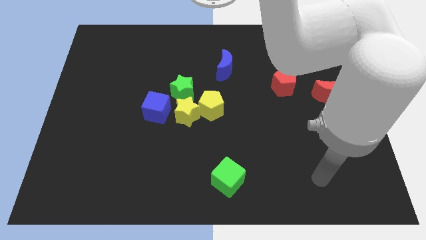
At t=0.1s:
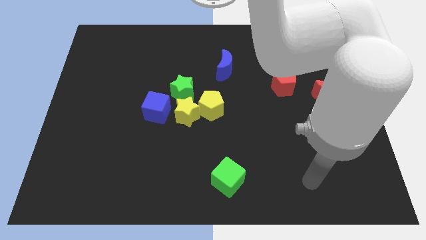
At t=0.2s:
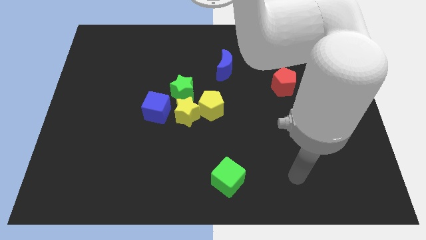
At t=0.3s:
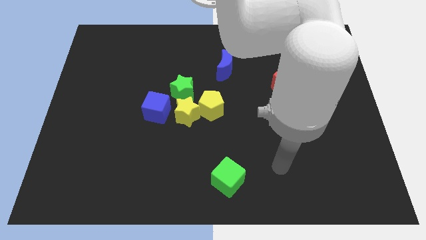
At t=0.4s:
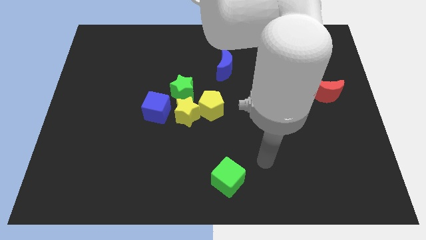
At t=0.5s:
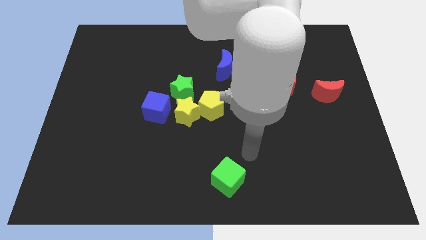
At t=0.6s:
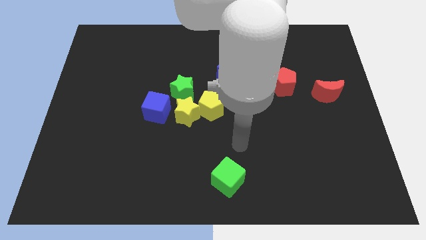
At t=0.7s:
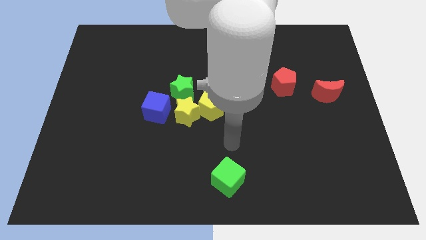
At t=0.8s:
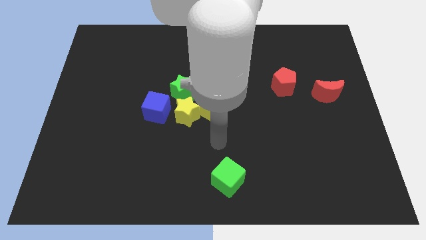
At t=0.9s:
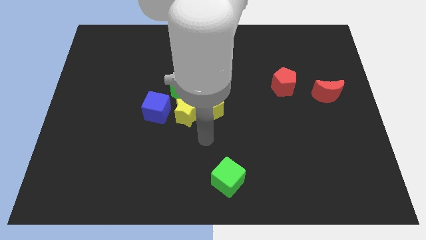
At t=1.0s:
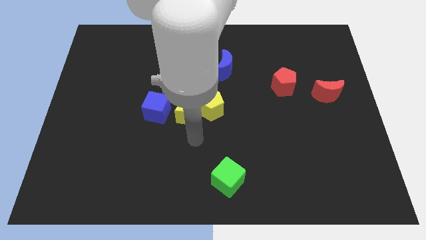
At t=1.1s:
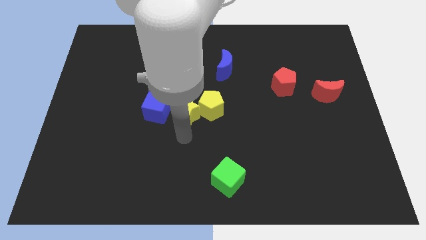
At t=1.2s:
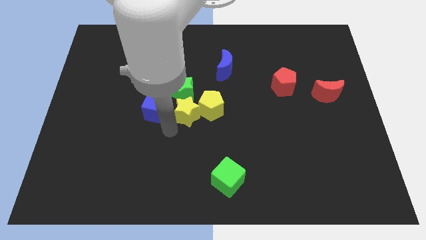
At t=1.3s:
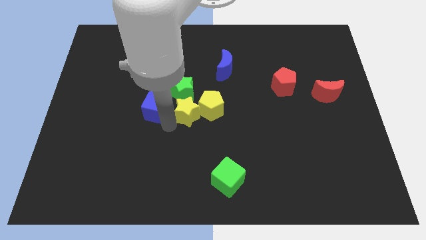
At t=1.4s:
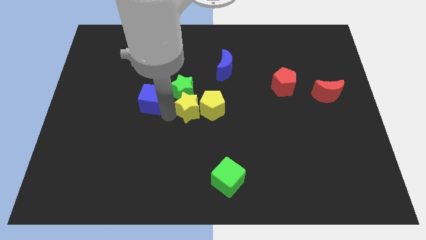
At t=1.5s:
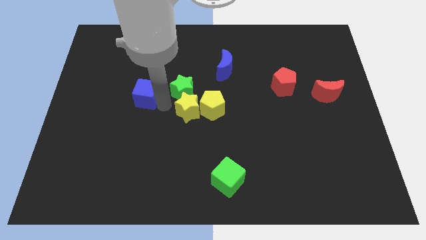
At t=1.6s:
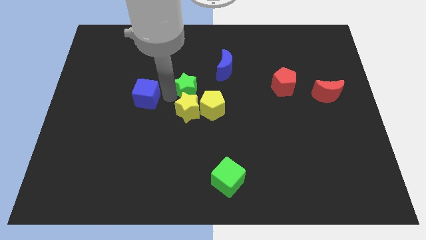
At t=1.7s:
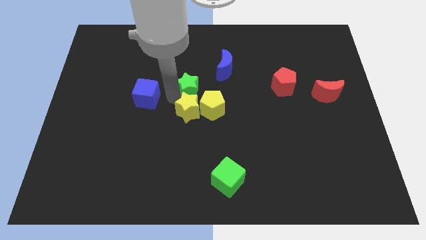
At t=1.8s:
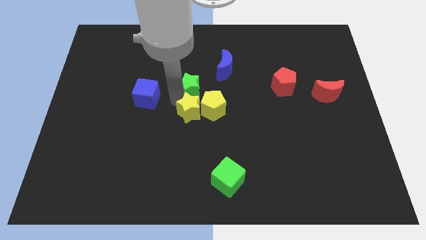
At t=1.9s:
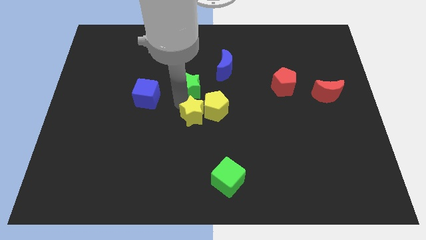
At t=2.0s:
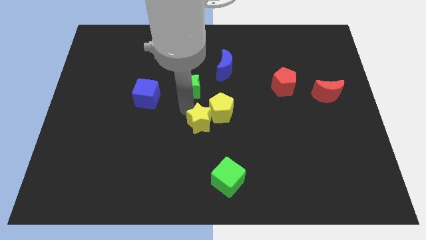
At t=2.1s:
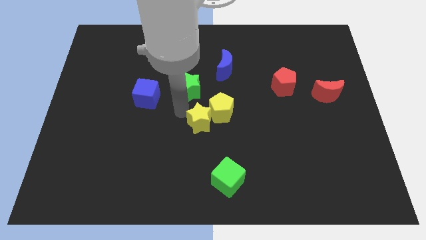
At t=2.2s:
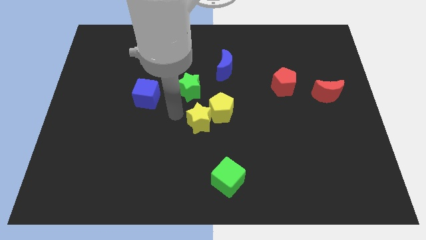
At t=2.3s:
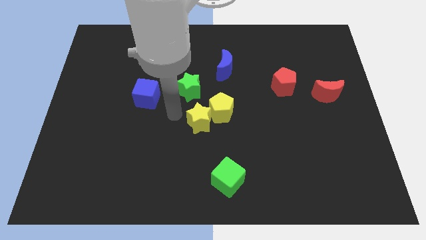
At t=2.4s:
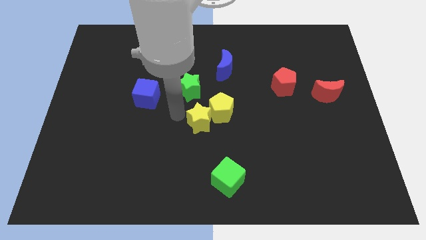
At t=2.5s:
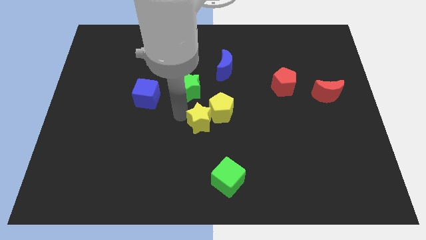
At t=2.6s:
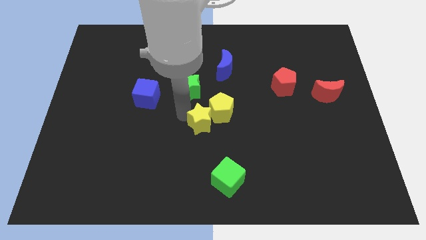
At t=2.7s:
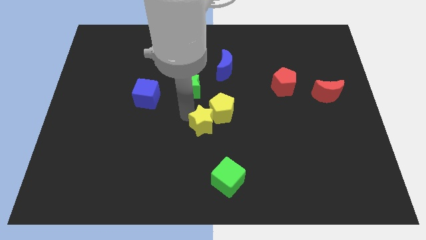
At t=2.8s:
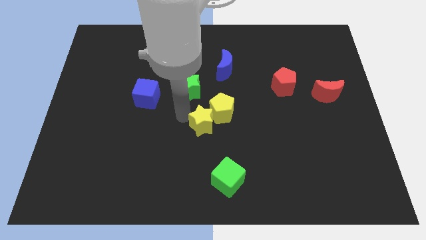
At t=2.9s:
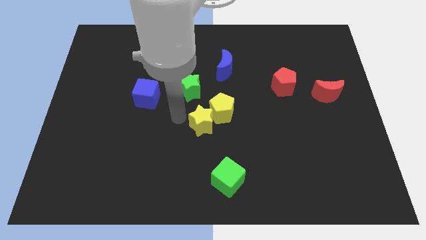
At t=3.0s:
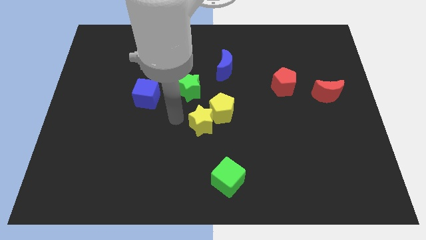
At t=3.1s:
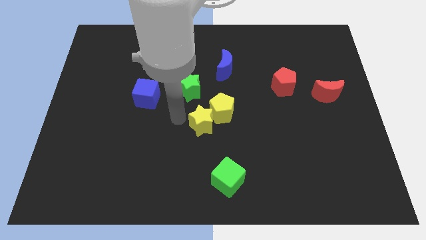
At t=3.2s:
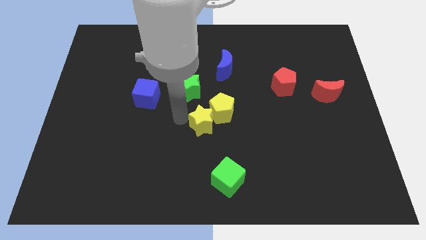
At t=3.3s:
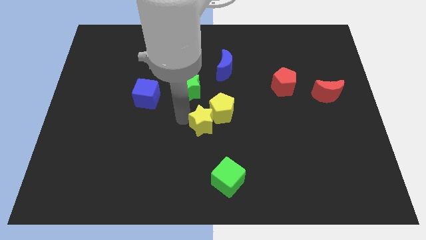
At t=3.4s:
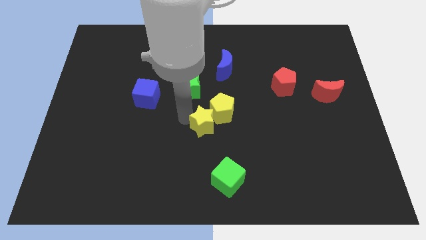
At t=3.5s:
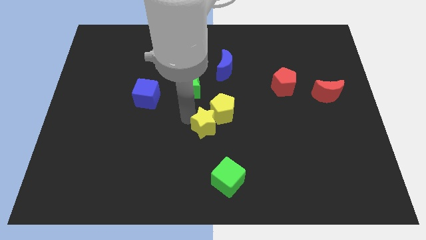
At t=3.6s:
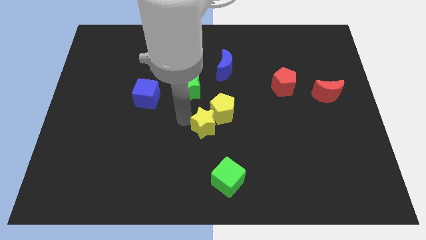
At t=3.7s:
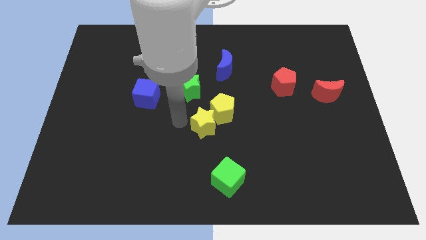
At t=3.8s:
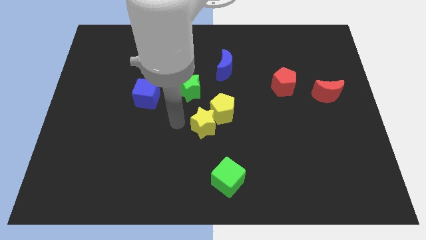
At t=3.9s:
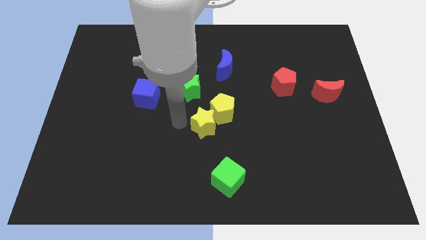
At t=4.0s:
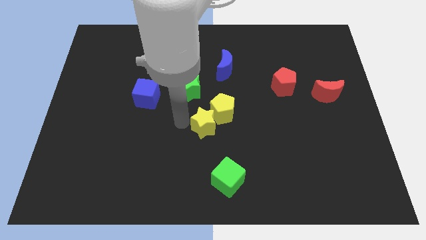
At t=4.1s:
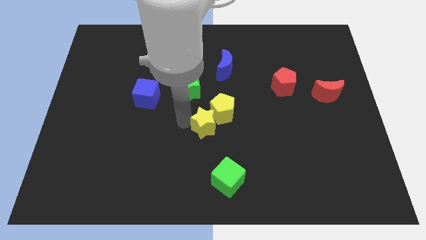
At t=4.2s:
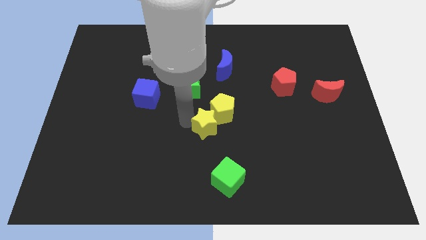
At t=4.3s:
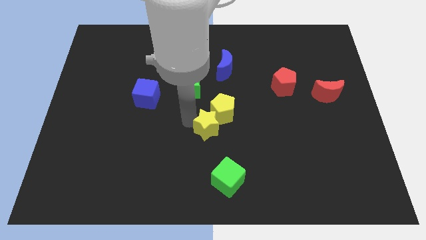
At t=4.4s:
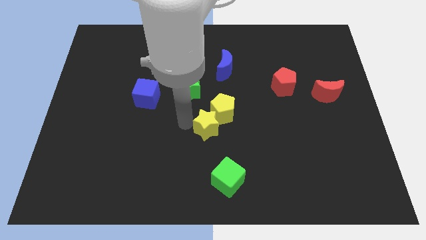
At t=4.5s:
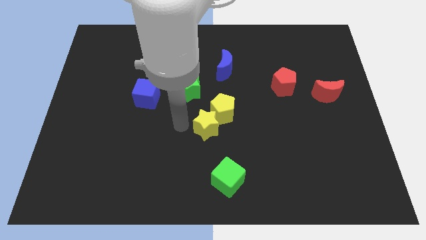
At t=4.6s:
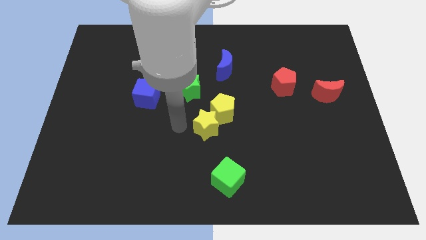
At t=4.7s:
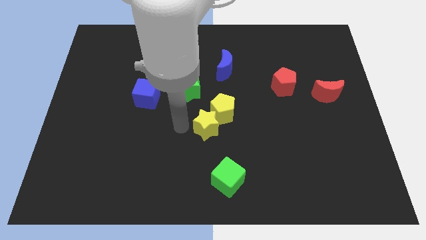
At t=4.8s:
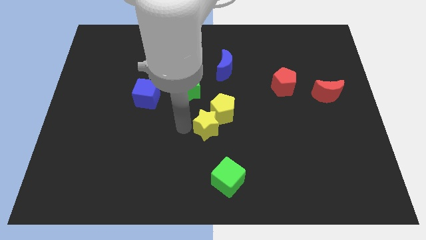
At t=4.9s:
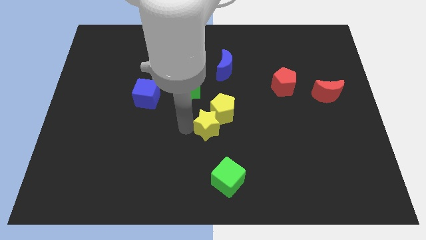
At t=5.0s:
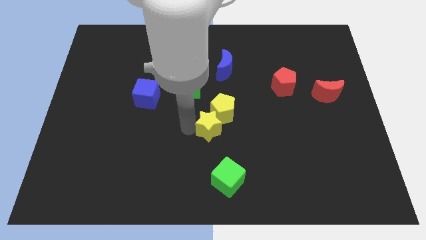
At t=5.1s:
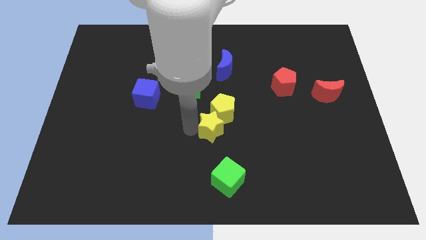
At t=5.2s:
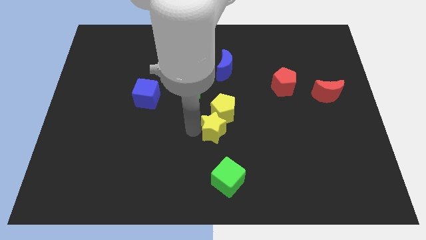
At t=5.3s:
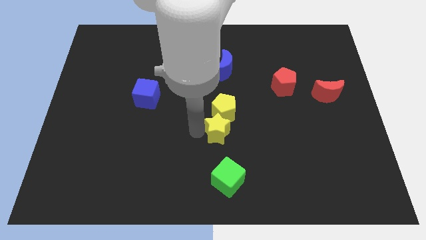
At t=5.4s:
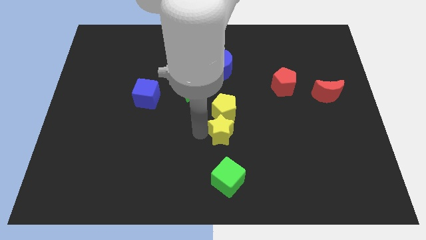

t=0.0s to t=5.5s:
push the yellow star right somewhat

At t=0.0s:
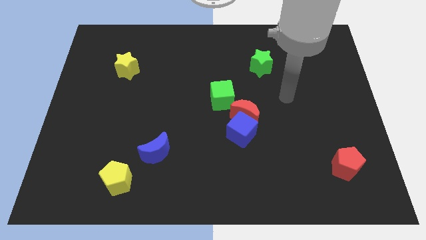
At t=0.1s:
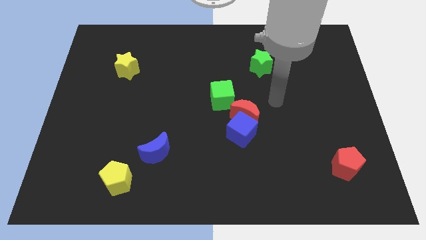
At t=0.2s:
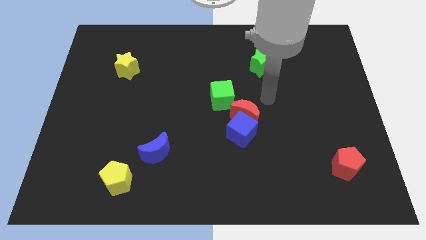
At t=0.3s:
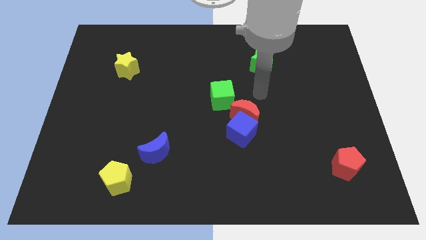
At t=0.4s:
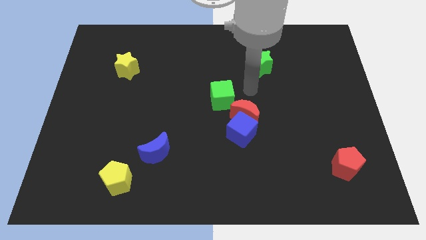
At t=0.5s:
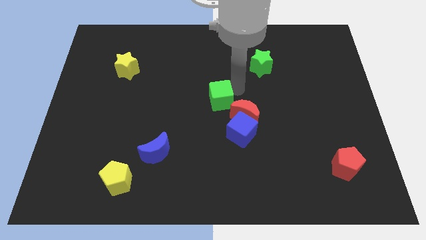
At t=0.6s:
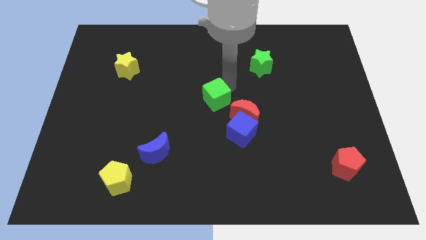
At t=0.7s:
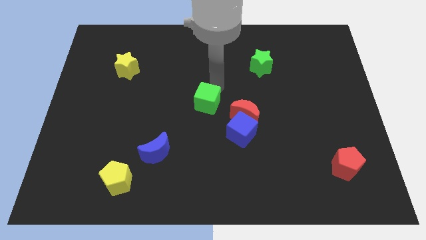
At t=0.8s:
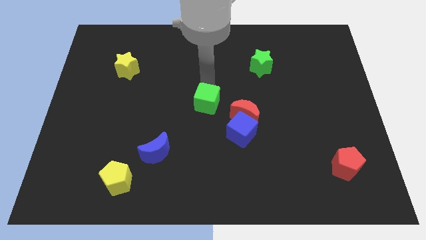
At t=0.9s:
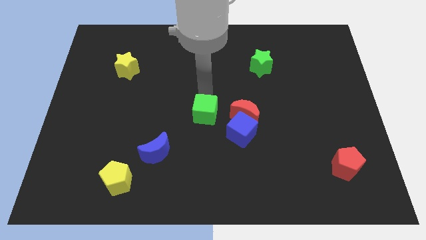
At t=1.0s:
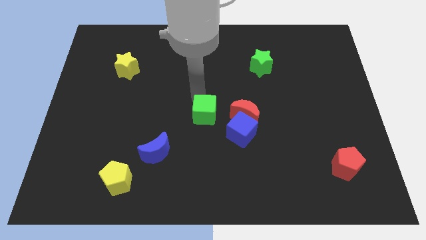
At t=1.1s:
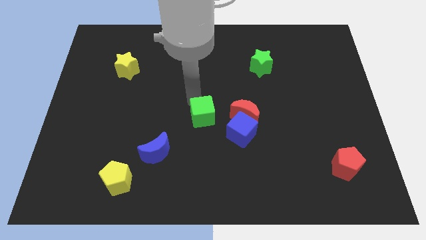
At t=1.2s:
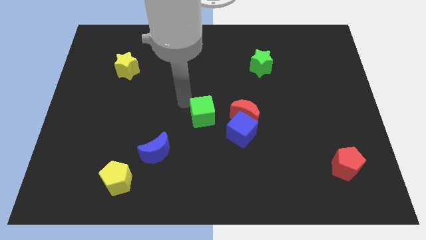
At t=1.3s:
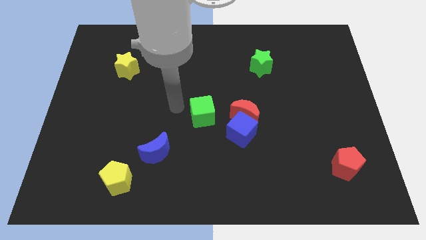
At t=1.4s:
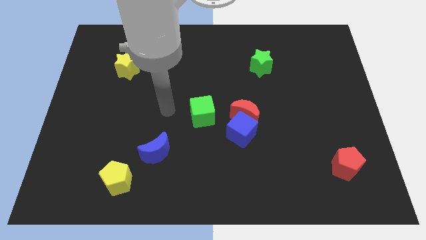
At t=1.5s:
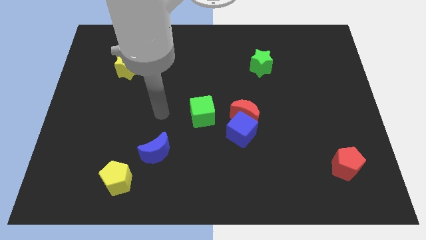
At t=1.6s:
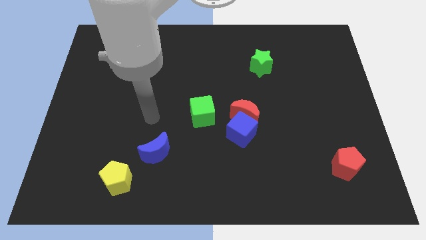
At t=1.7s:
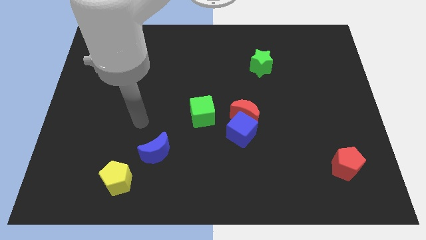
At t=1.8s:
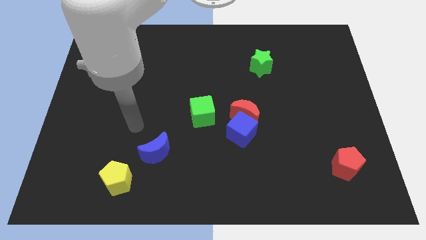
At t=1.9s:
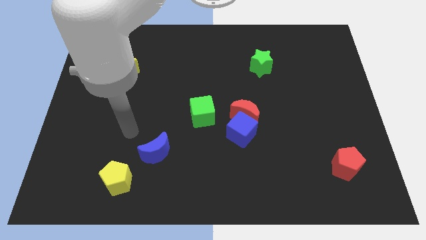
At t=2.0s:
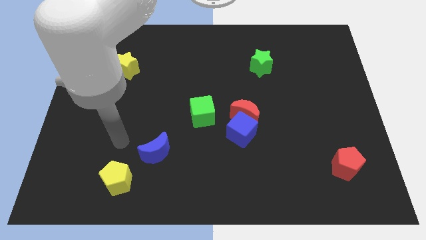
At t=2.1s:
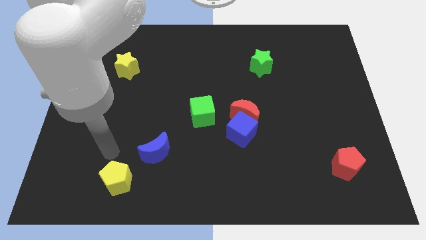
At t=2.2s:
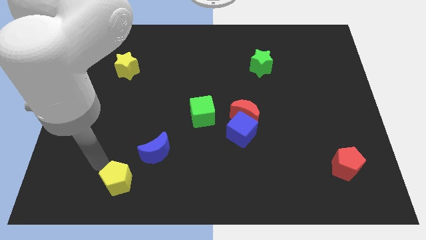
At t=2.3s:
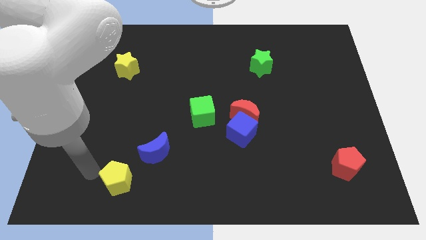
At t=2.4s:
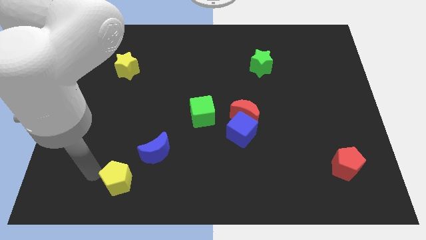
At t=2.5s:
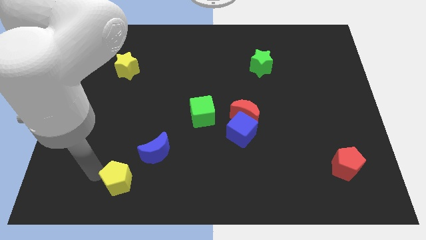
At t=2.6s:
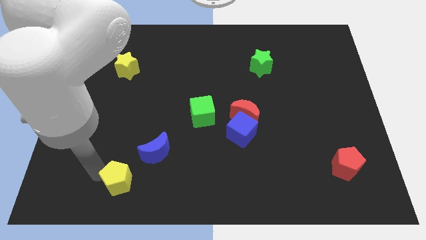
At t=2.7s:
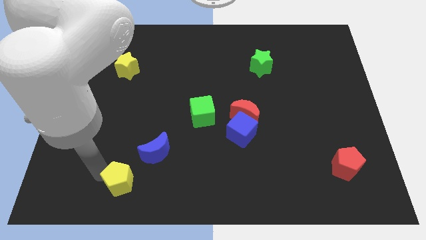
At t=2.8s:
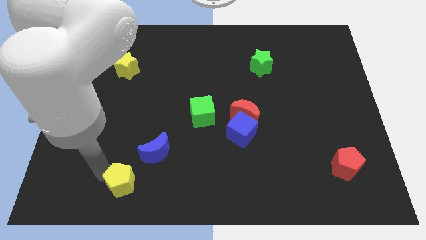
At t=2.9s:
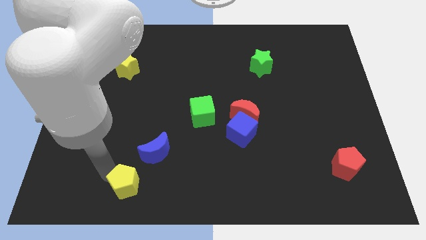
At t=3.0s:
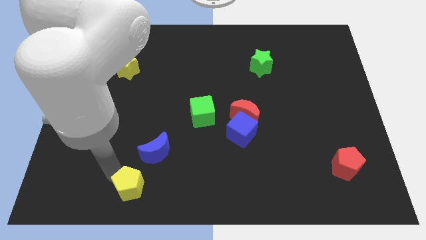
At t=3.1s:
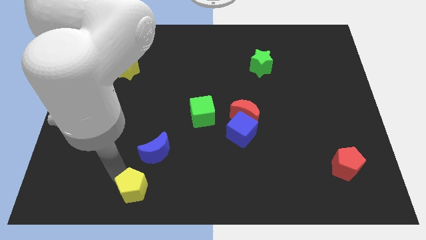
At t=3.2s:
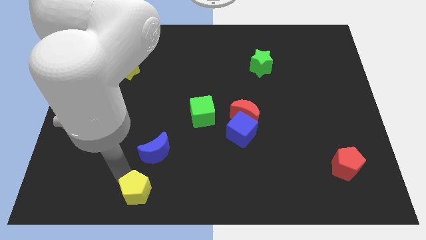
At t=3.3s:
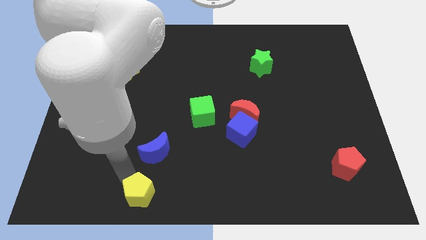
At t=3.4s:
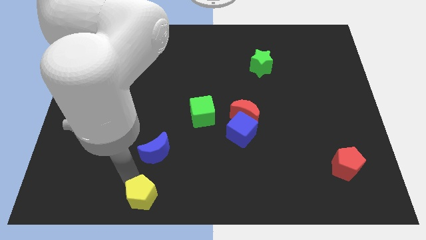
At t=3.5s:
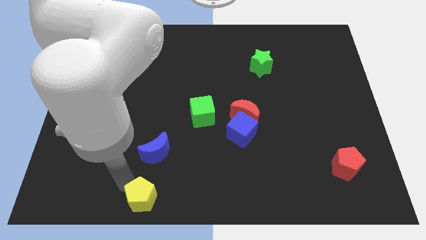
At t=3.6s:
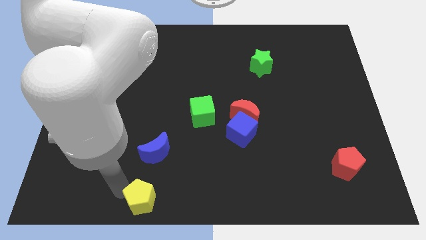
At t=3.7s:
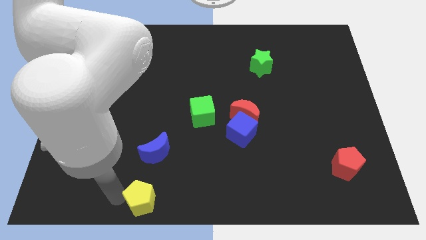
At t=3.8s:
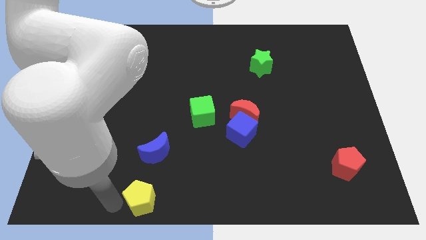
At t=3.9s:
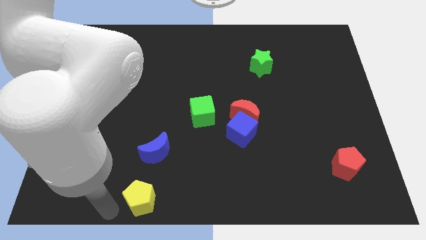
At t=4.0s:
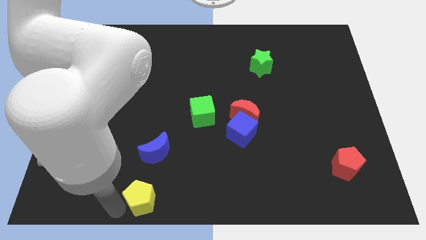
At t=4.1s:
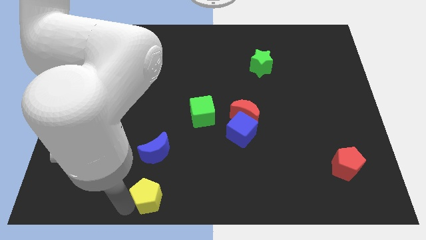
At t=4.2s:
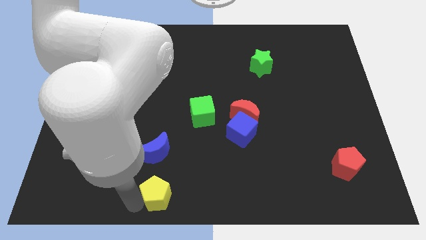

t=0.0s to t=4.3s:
push the yellow pentagon a little bit to the right
